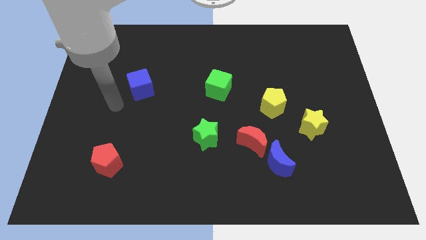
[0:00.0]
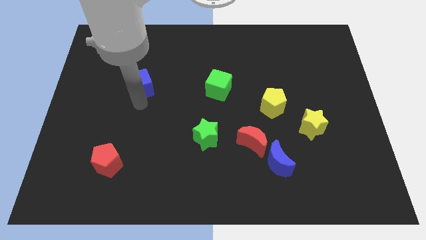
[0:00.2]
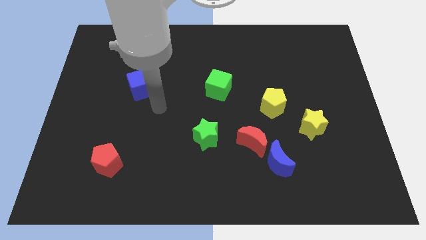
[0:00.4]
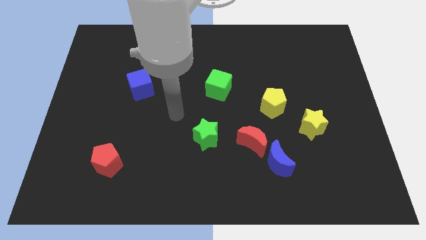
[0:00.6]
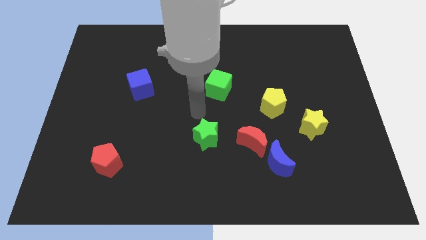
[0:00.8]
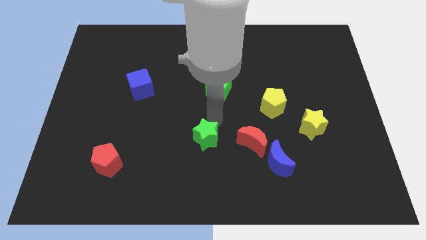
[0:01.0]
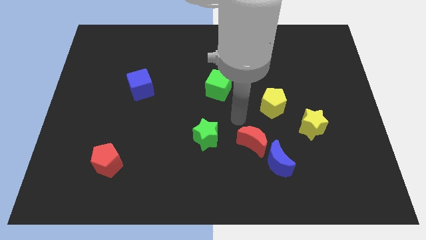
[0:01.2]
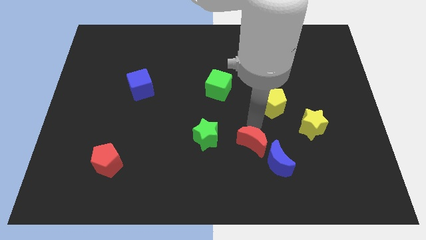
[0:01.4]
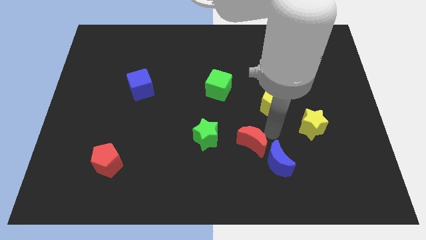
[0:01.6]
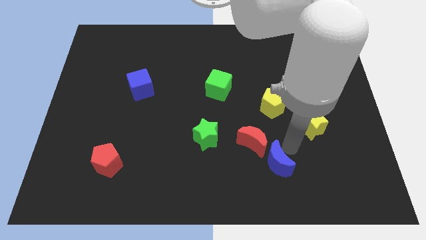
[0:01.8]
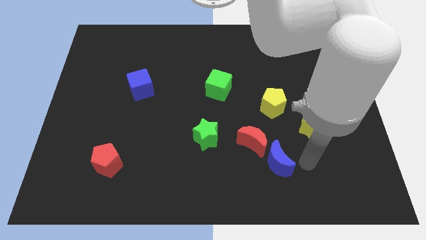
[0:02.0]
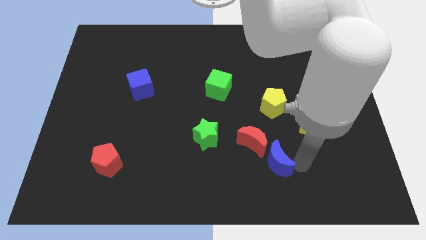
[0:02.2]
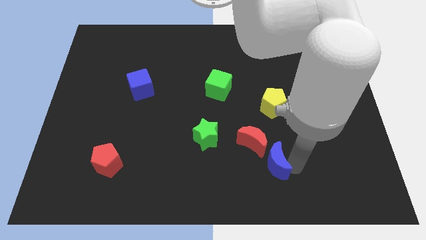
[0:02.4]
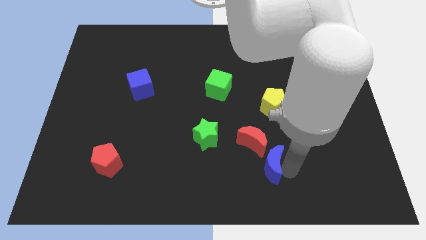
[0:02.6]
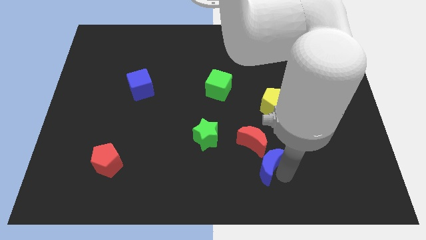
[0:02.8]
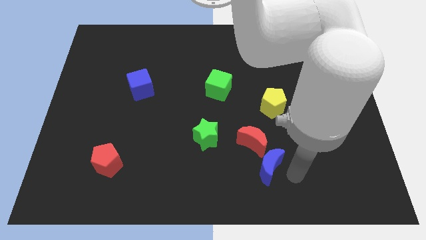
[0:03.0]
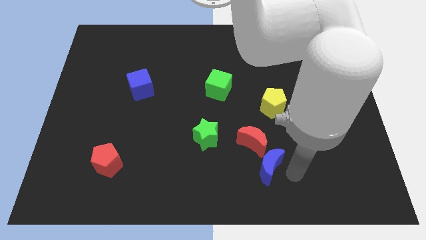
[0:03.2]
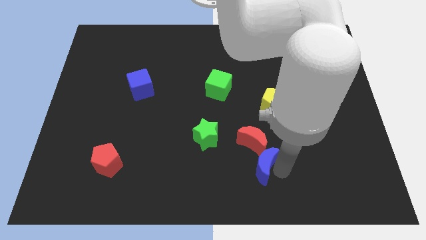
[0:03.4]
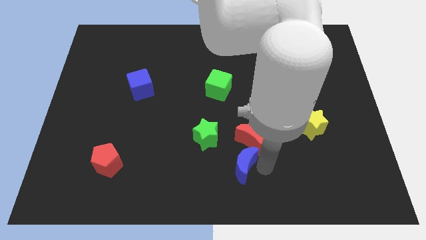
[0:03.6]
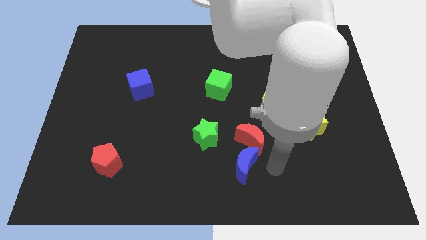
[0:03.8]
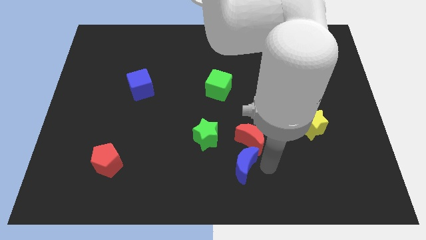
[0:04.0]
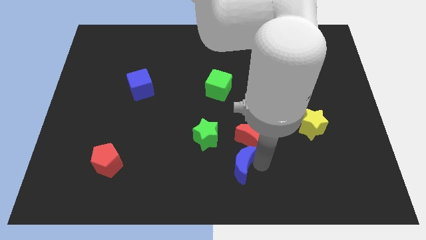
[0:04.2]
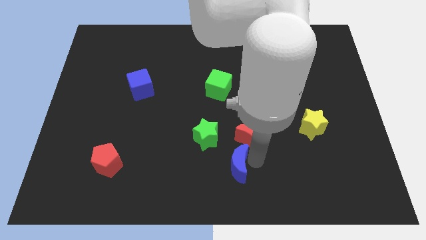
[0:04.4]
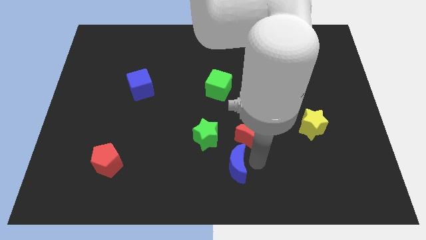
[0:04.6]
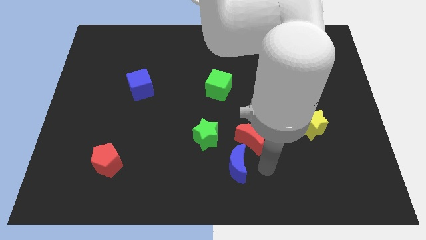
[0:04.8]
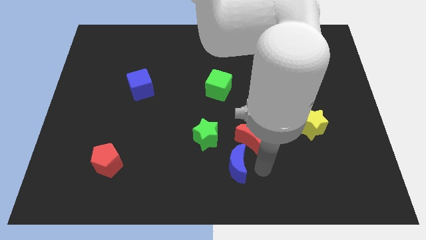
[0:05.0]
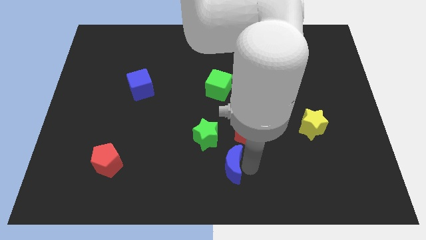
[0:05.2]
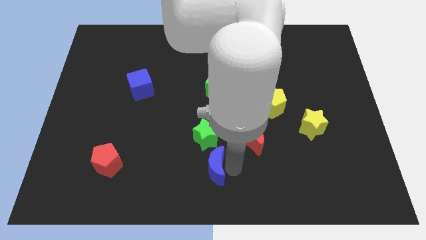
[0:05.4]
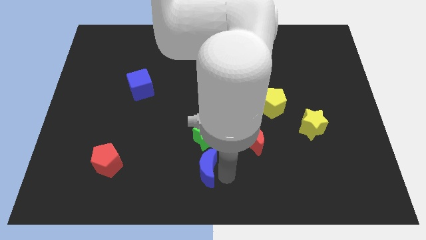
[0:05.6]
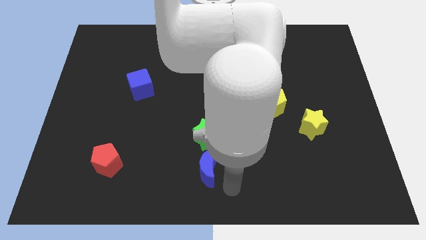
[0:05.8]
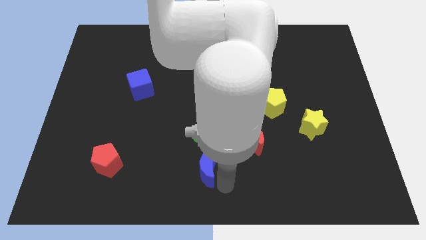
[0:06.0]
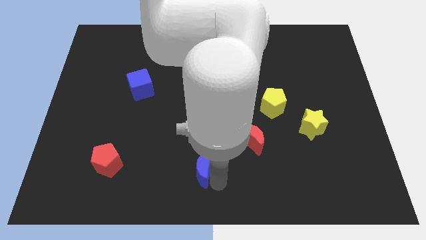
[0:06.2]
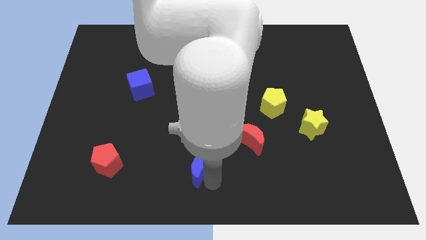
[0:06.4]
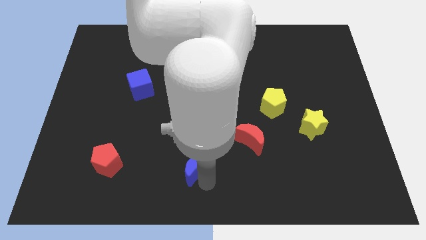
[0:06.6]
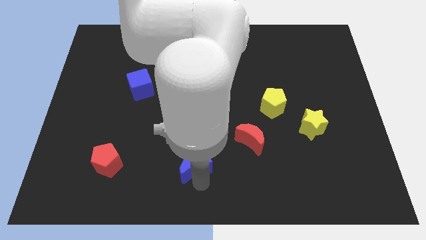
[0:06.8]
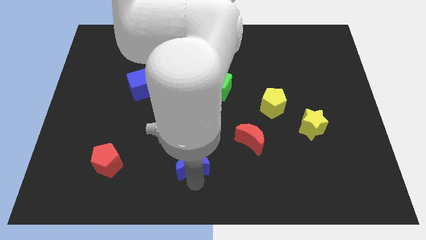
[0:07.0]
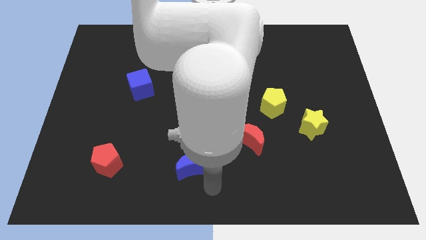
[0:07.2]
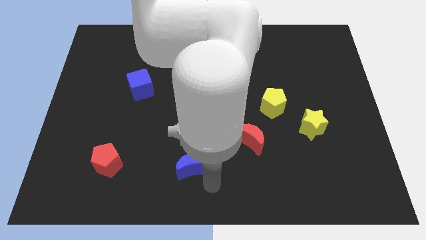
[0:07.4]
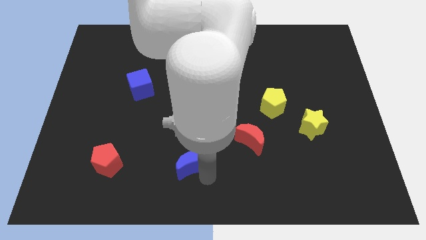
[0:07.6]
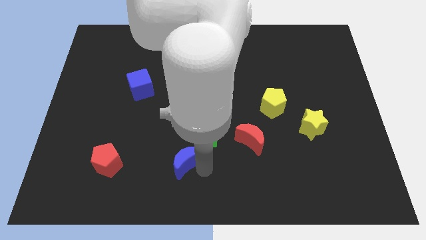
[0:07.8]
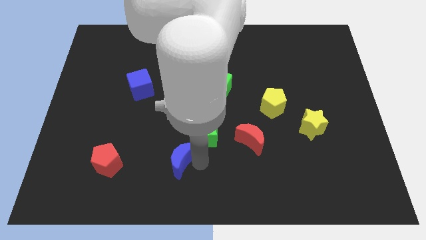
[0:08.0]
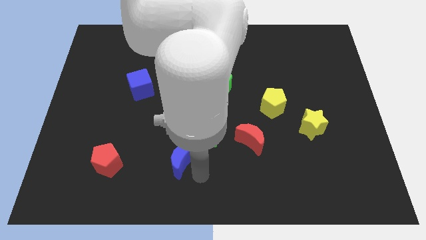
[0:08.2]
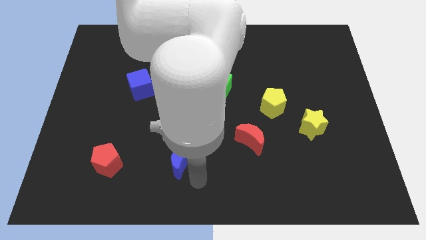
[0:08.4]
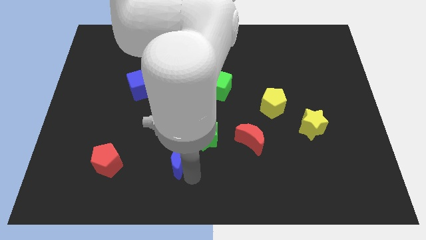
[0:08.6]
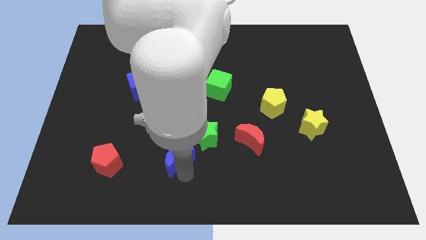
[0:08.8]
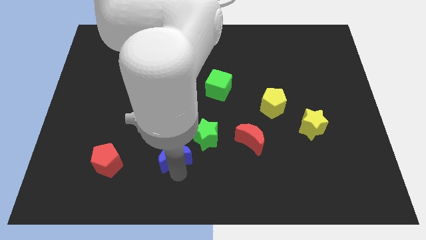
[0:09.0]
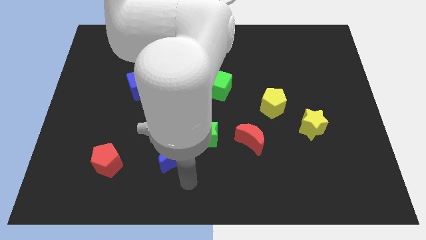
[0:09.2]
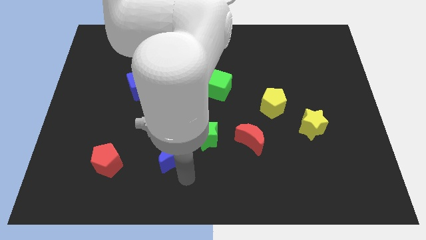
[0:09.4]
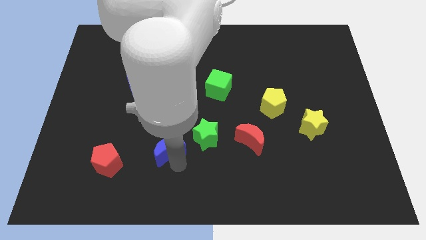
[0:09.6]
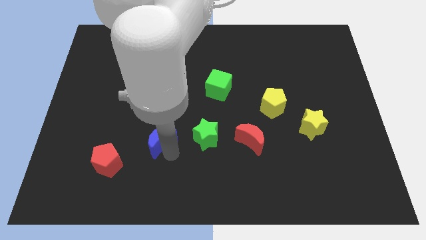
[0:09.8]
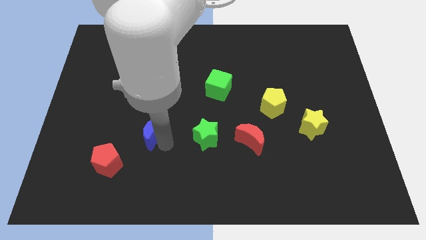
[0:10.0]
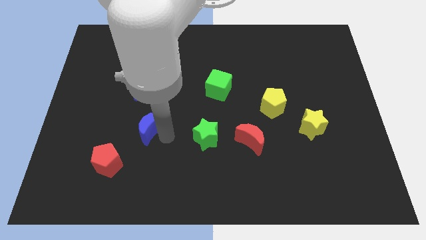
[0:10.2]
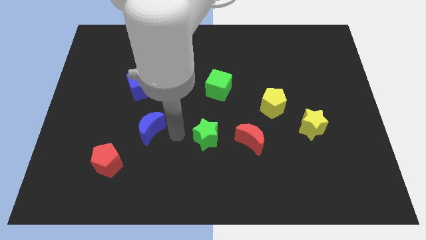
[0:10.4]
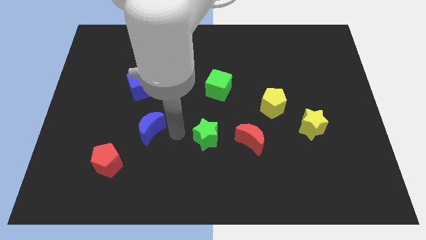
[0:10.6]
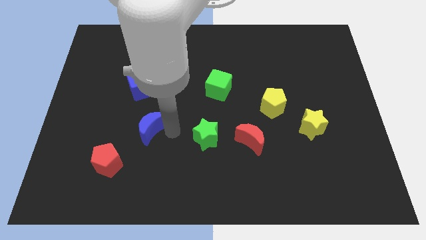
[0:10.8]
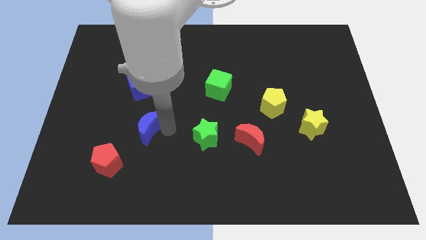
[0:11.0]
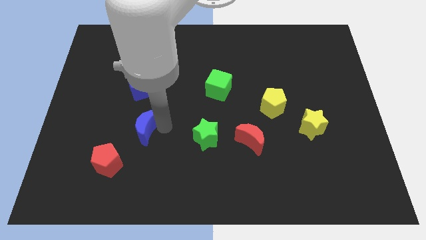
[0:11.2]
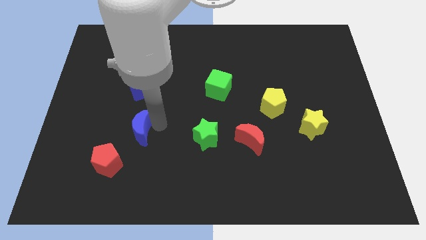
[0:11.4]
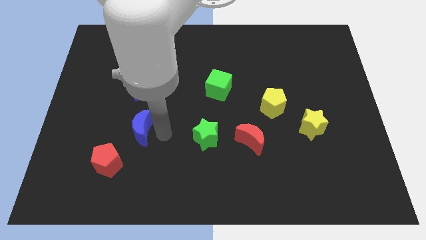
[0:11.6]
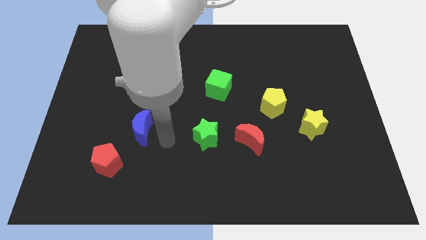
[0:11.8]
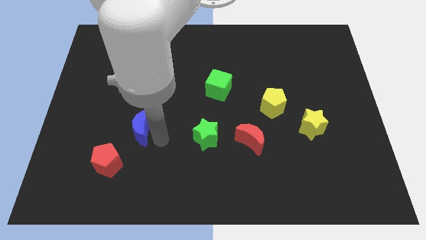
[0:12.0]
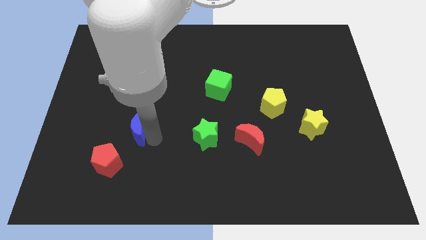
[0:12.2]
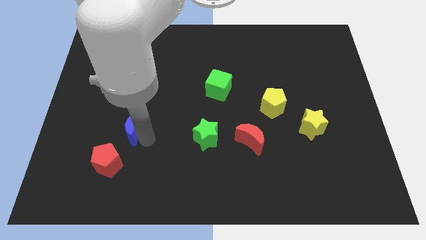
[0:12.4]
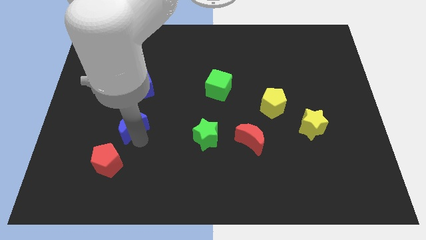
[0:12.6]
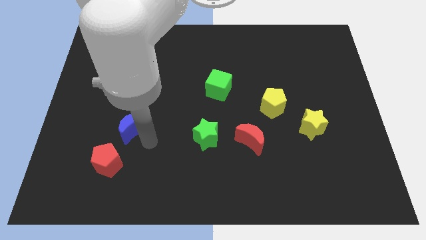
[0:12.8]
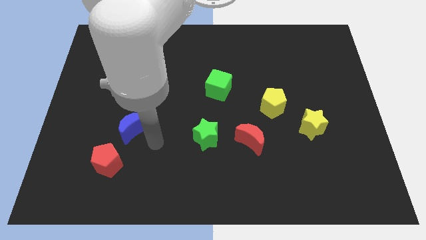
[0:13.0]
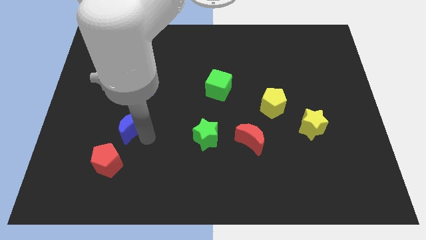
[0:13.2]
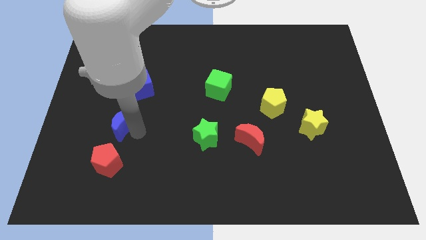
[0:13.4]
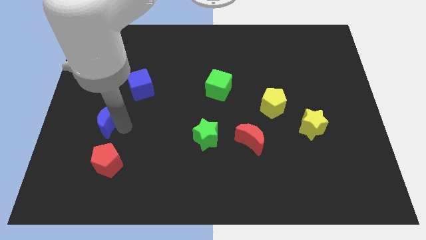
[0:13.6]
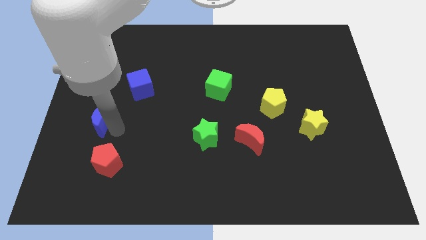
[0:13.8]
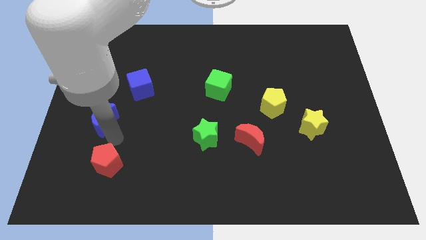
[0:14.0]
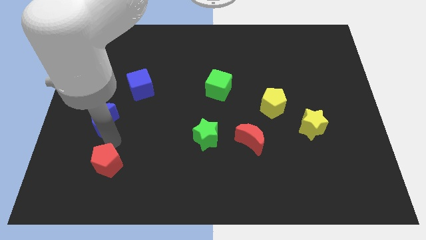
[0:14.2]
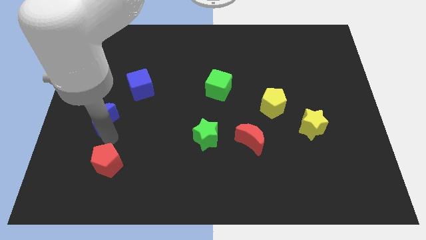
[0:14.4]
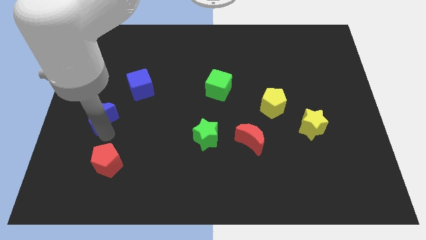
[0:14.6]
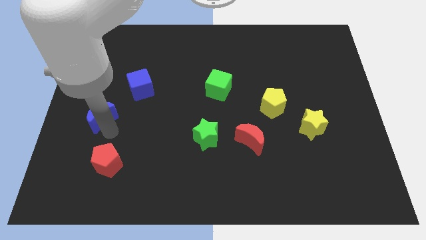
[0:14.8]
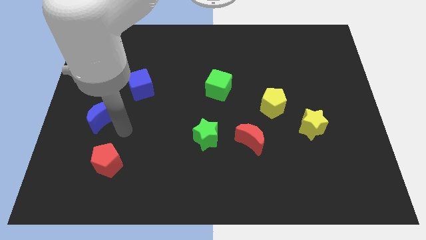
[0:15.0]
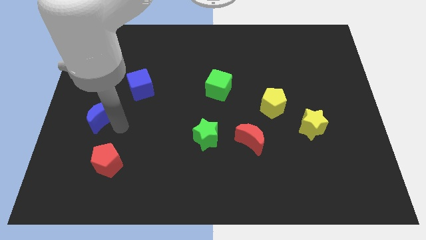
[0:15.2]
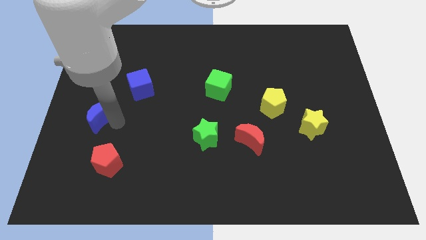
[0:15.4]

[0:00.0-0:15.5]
put the blue moon to the left side of the board
